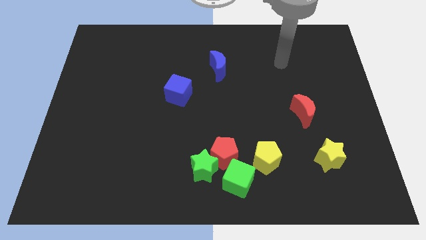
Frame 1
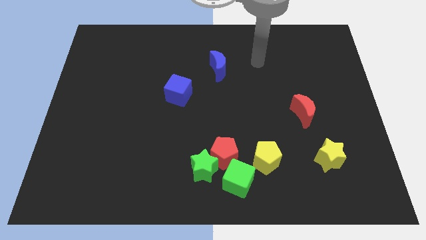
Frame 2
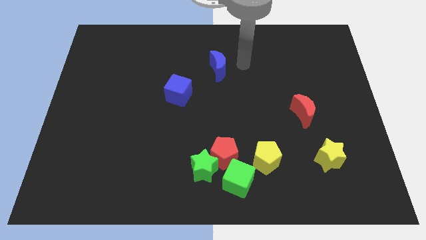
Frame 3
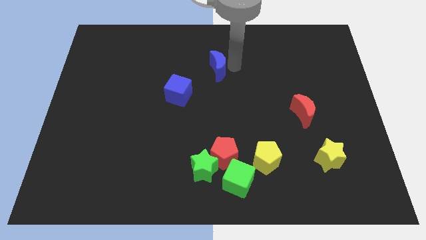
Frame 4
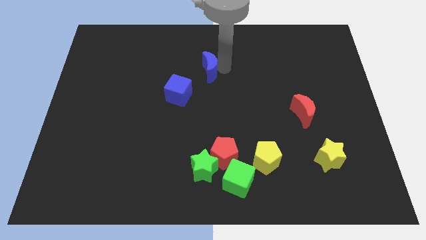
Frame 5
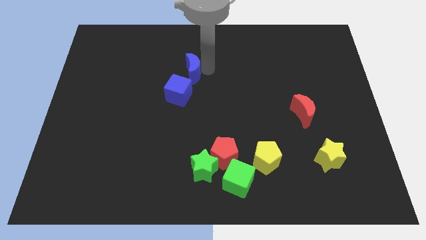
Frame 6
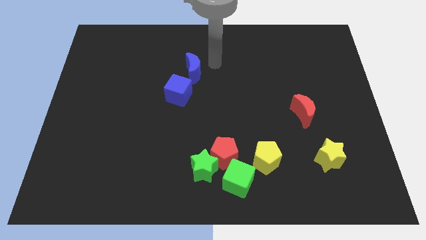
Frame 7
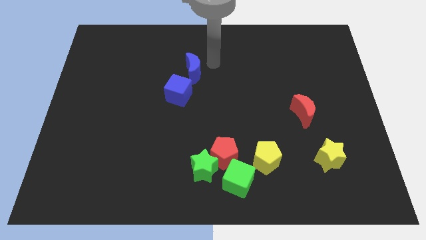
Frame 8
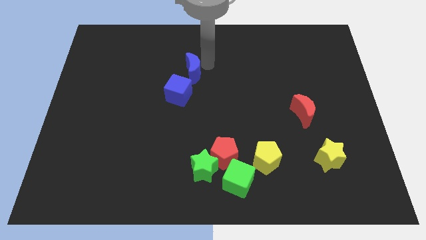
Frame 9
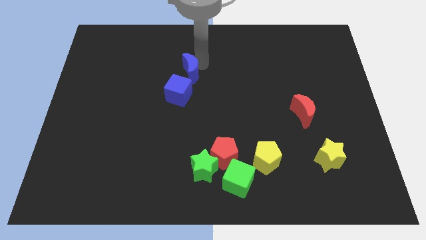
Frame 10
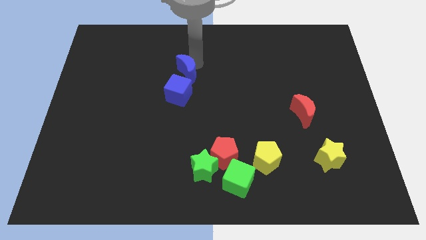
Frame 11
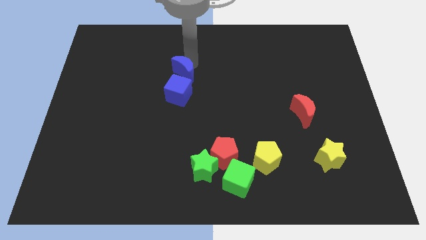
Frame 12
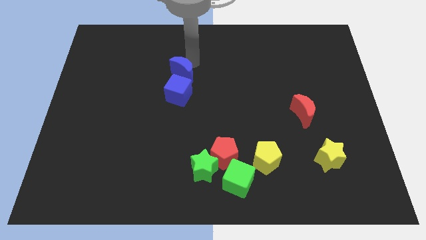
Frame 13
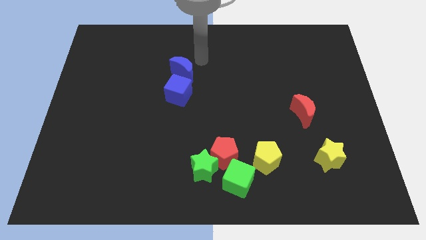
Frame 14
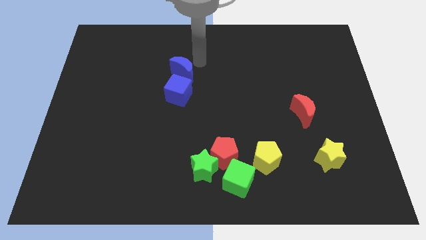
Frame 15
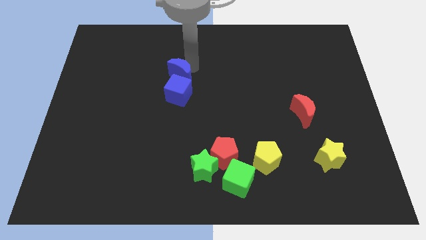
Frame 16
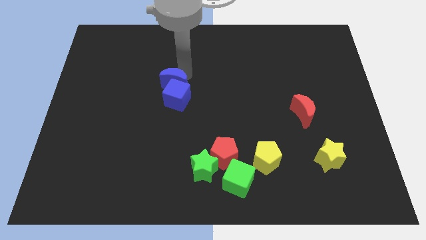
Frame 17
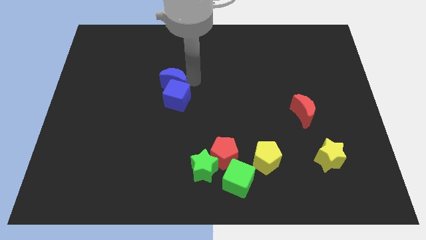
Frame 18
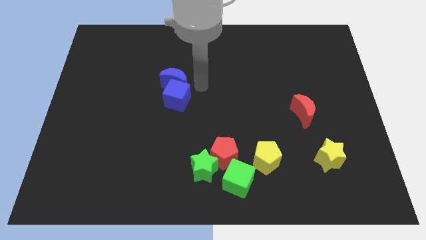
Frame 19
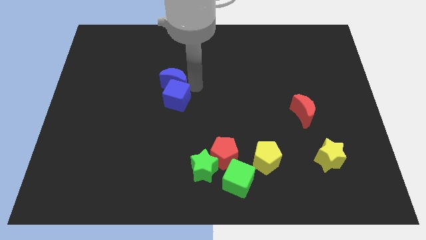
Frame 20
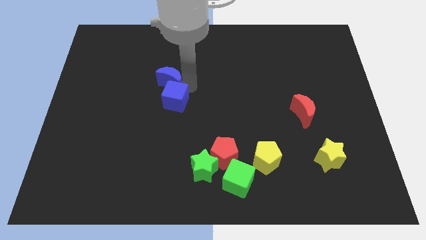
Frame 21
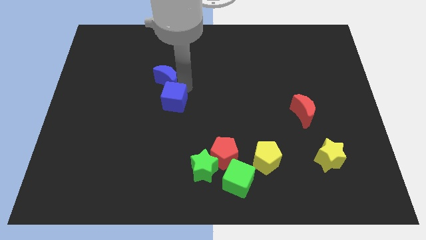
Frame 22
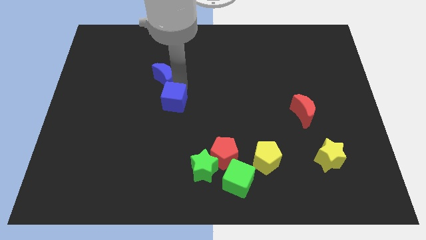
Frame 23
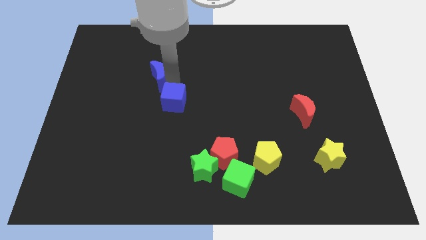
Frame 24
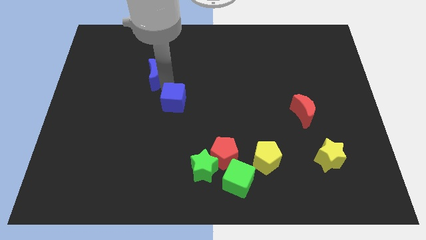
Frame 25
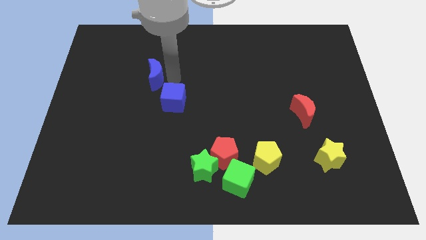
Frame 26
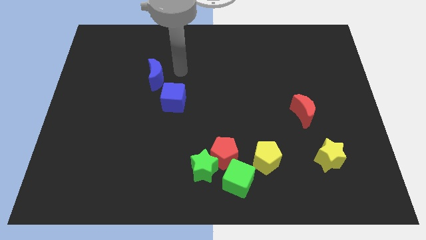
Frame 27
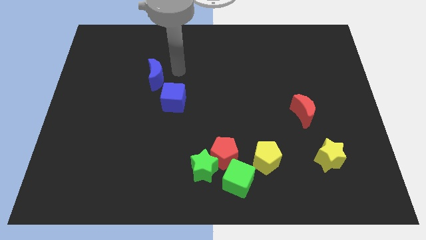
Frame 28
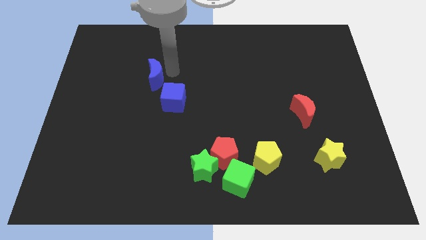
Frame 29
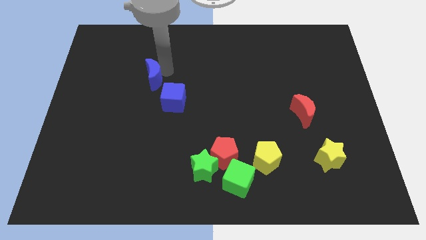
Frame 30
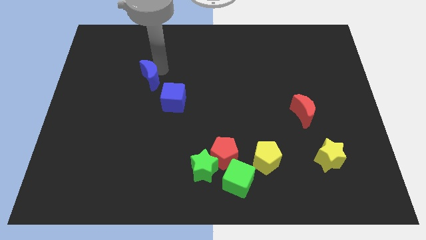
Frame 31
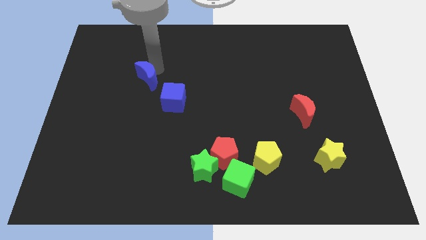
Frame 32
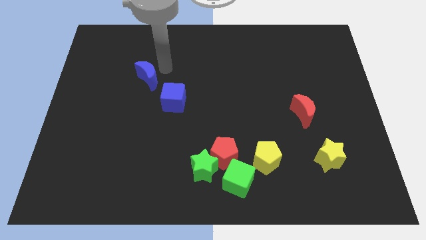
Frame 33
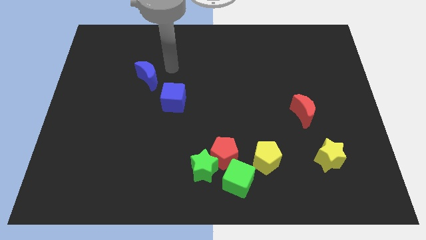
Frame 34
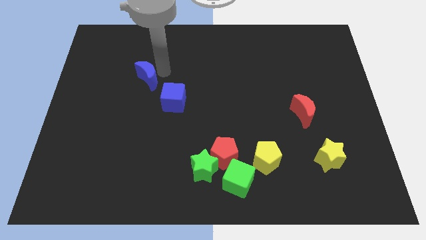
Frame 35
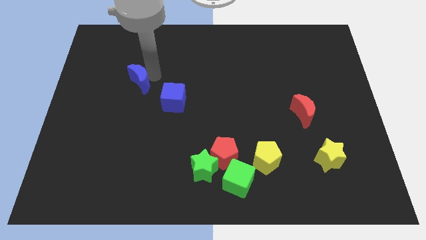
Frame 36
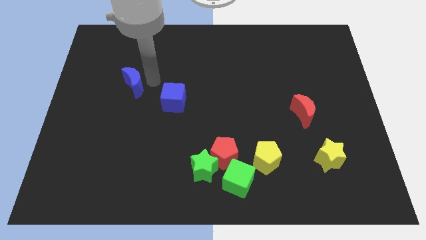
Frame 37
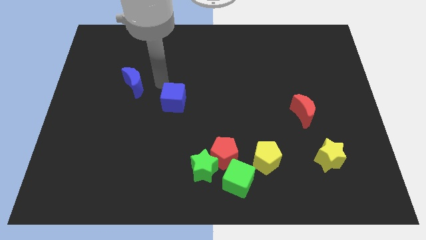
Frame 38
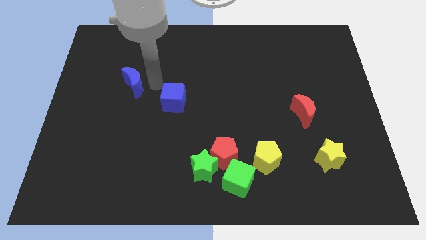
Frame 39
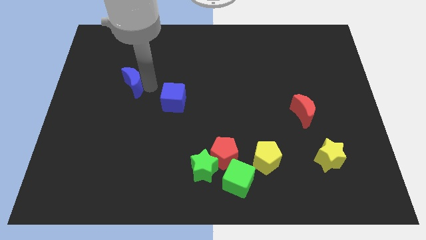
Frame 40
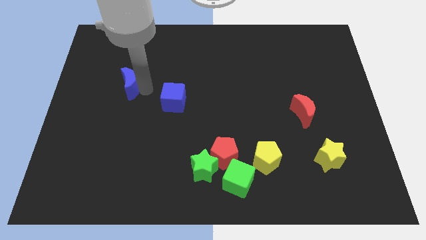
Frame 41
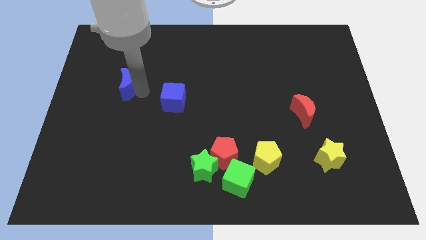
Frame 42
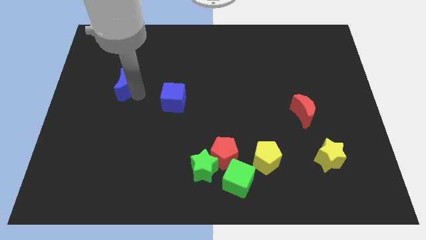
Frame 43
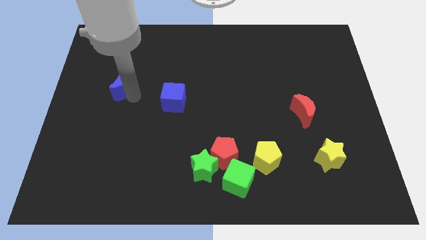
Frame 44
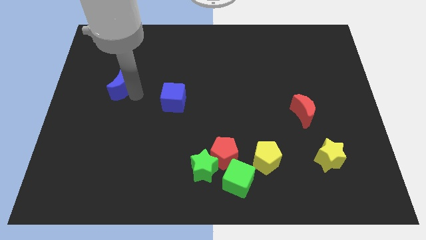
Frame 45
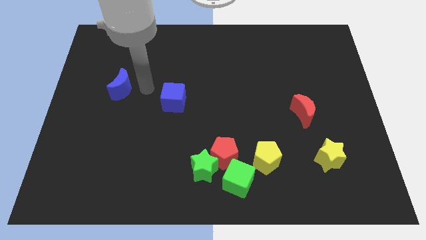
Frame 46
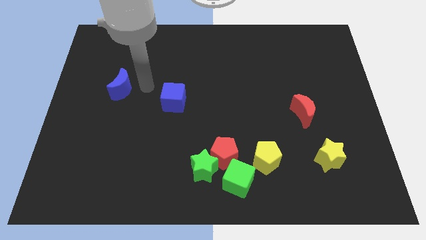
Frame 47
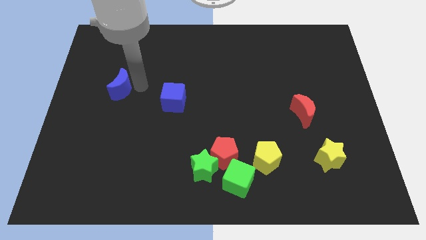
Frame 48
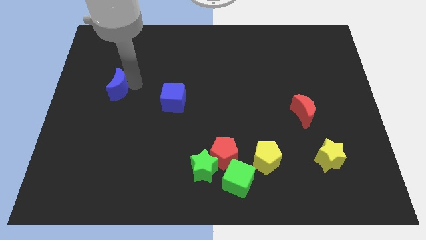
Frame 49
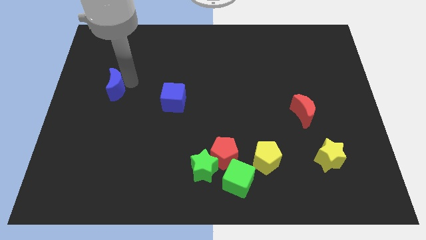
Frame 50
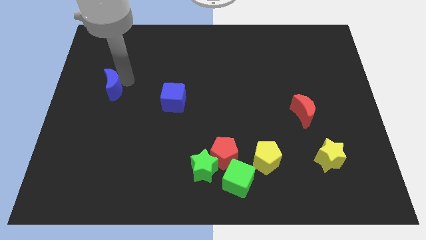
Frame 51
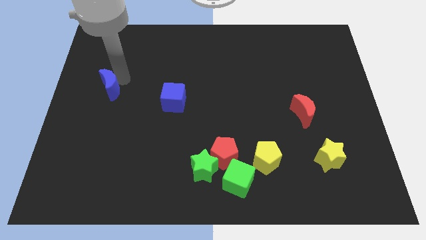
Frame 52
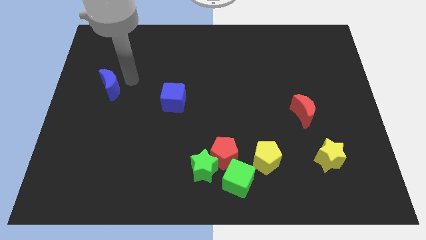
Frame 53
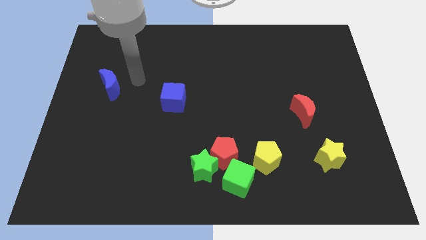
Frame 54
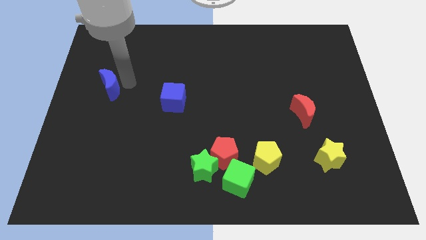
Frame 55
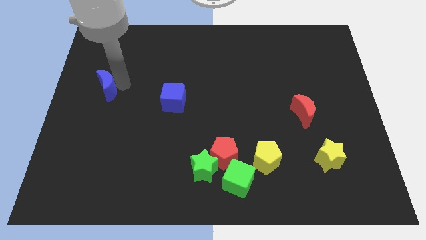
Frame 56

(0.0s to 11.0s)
move the blue moon to the left side

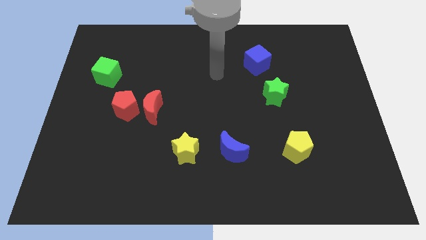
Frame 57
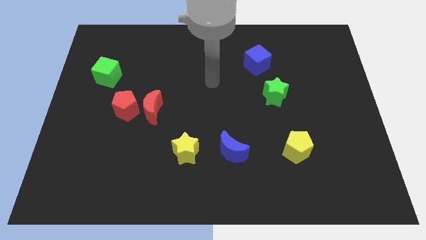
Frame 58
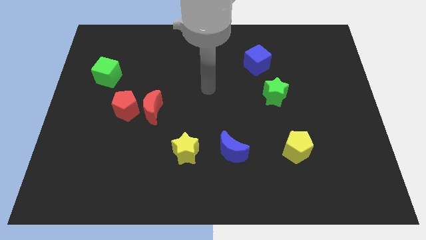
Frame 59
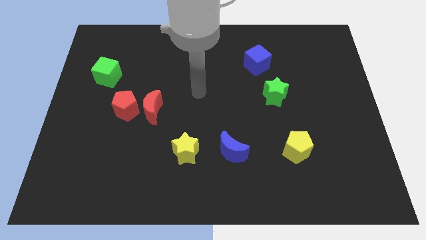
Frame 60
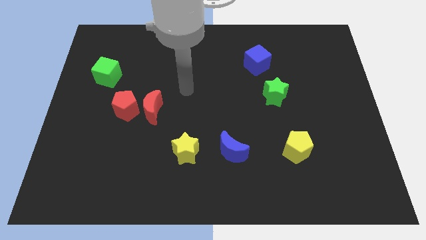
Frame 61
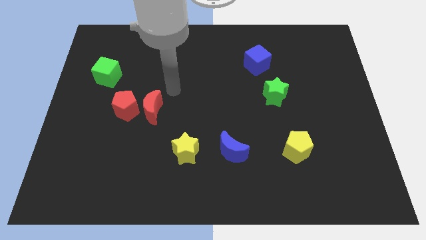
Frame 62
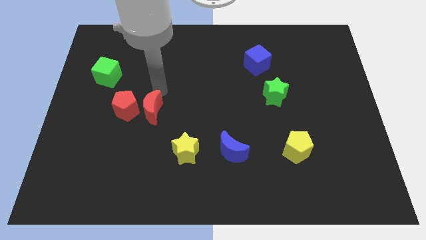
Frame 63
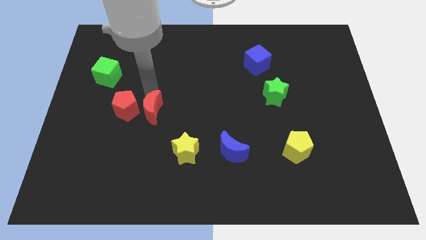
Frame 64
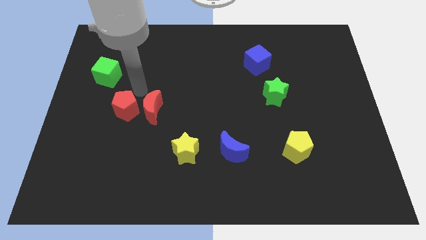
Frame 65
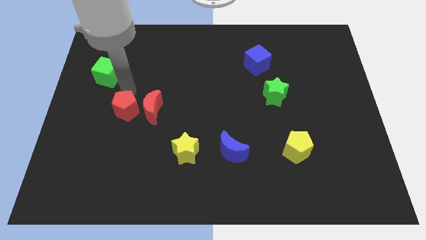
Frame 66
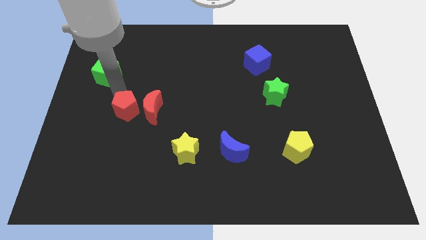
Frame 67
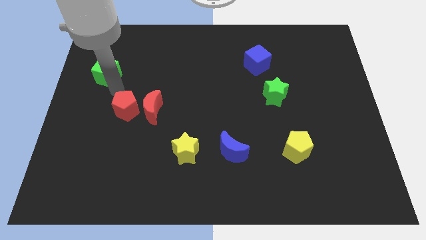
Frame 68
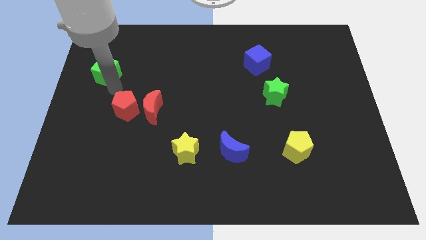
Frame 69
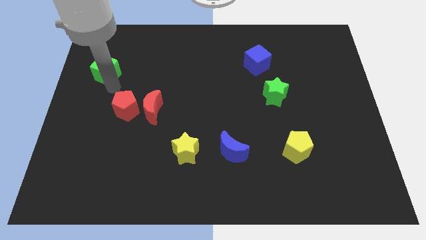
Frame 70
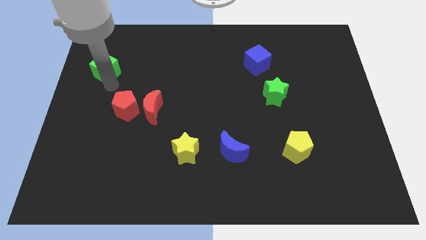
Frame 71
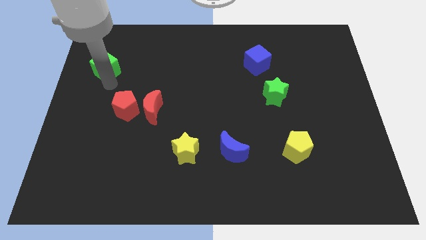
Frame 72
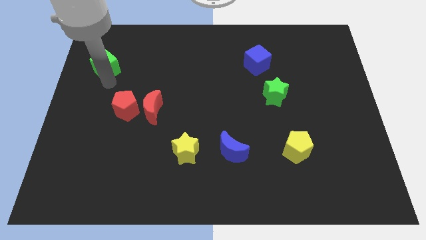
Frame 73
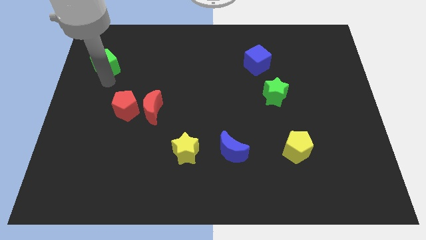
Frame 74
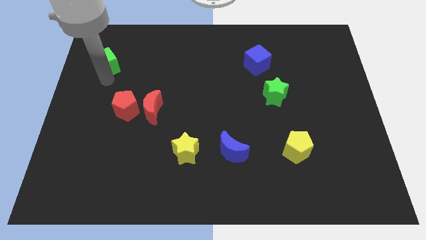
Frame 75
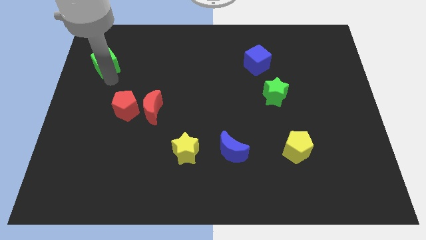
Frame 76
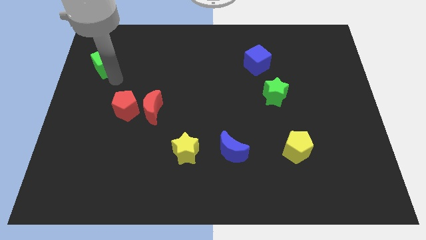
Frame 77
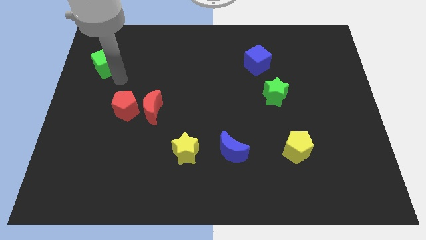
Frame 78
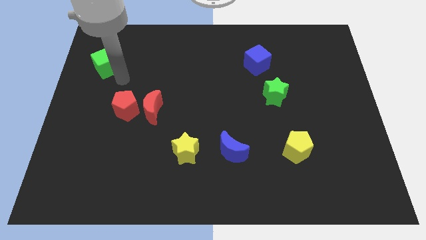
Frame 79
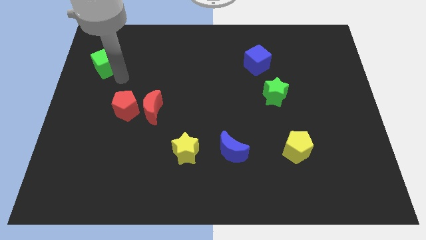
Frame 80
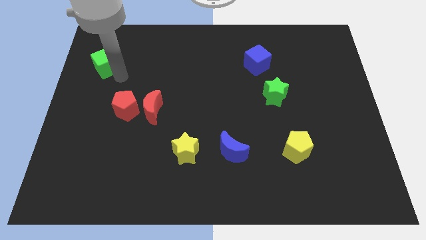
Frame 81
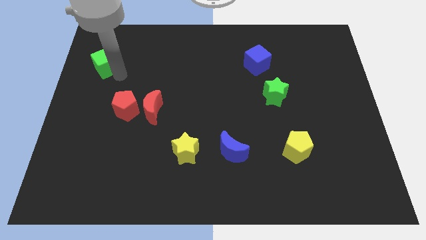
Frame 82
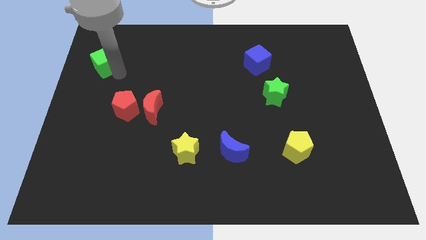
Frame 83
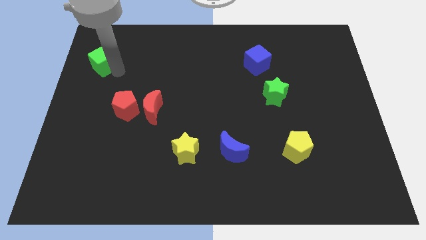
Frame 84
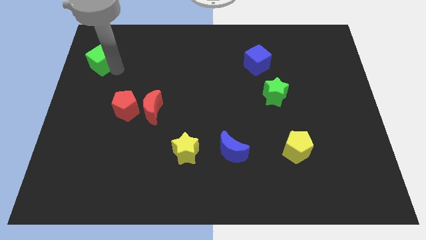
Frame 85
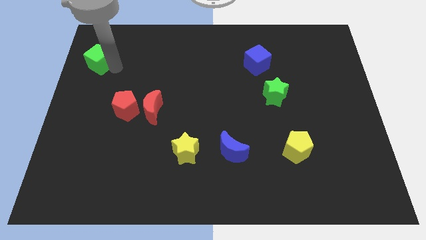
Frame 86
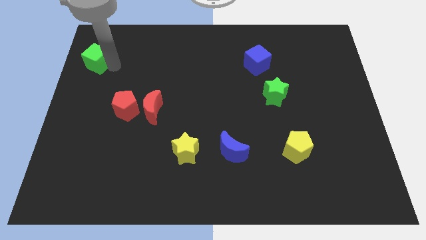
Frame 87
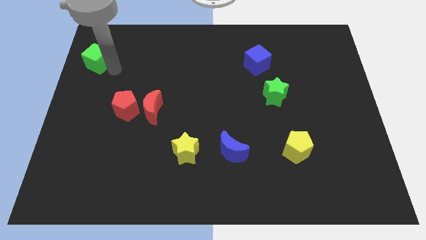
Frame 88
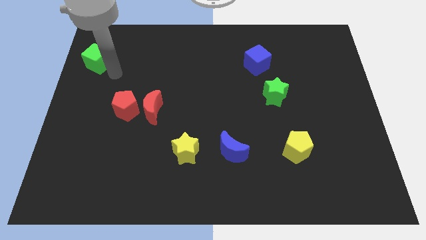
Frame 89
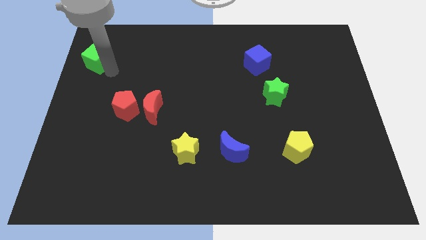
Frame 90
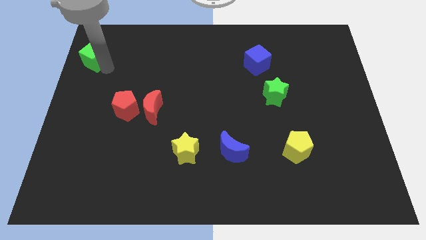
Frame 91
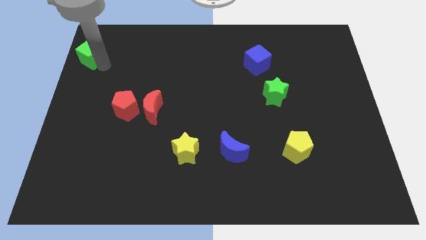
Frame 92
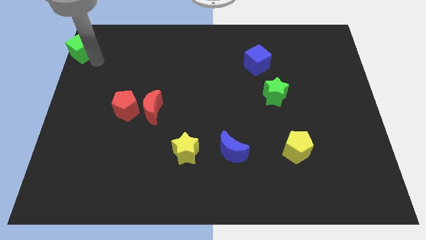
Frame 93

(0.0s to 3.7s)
move the green cube to the top left corner
